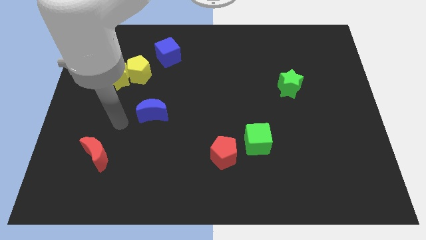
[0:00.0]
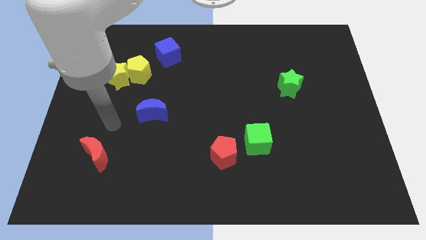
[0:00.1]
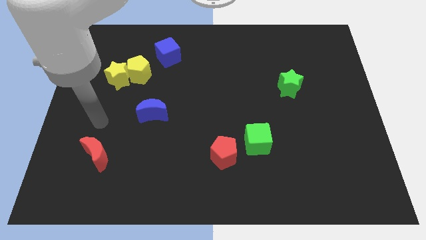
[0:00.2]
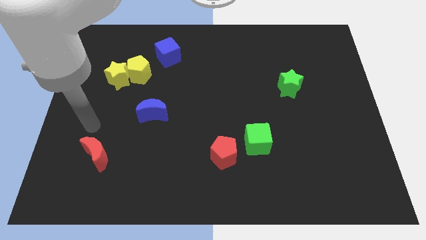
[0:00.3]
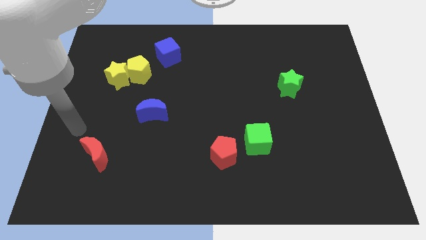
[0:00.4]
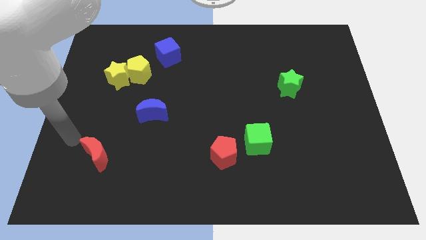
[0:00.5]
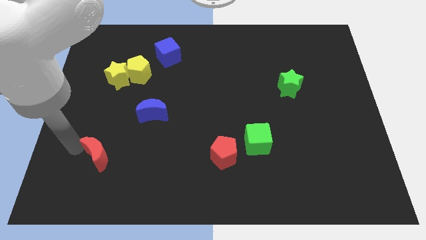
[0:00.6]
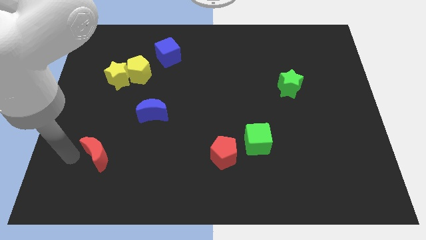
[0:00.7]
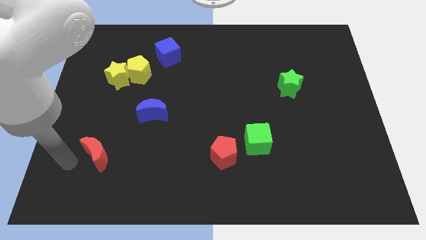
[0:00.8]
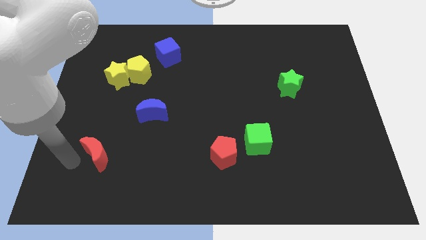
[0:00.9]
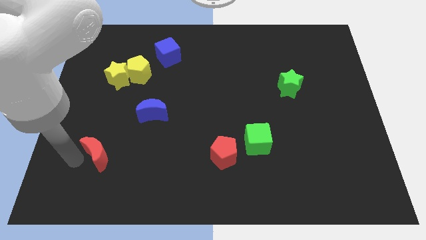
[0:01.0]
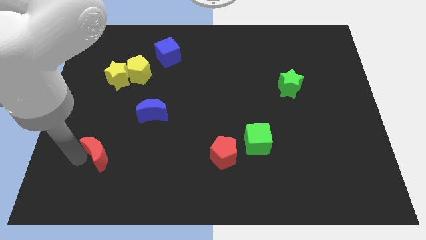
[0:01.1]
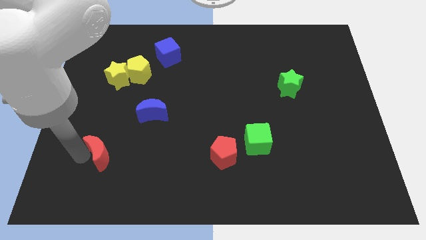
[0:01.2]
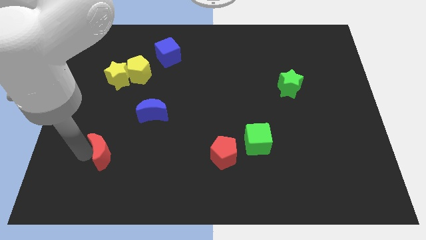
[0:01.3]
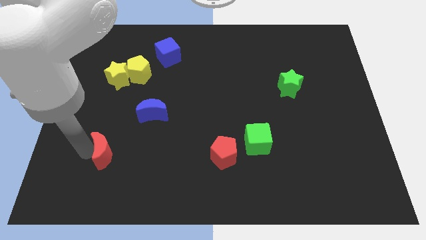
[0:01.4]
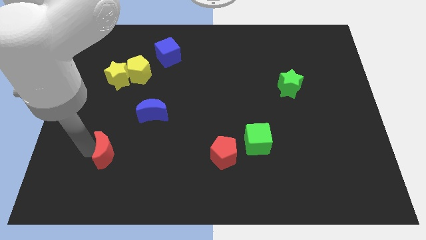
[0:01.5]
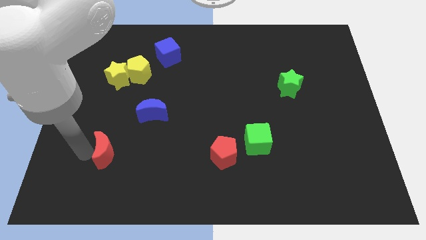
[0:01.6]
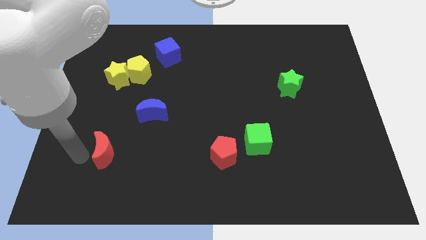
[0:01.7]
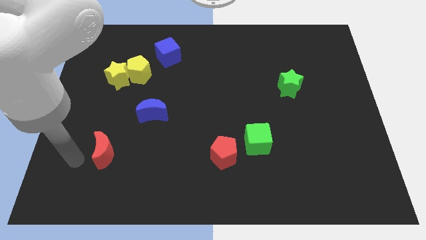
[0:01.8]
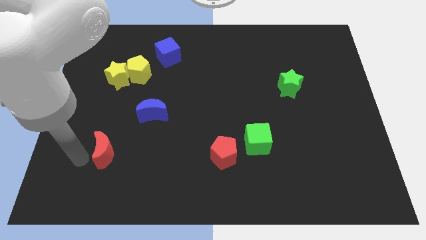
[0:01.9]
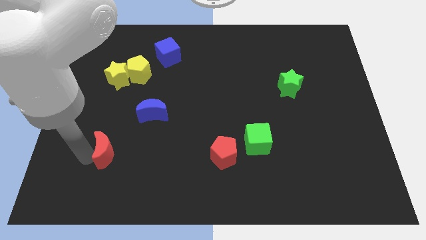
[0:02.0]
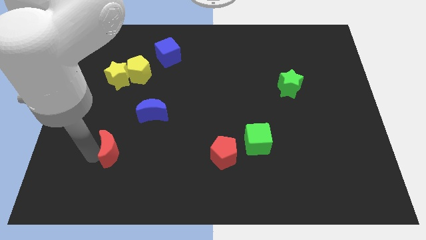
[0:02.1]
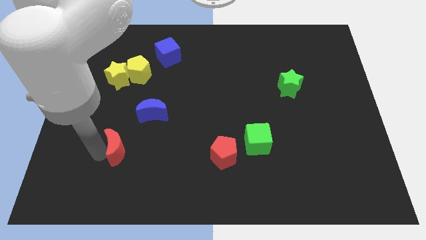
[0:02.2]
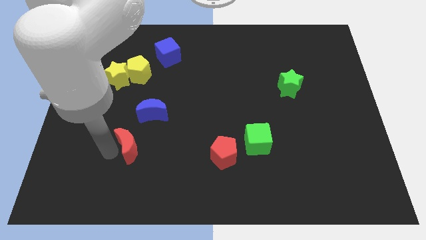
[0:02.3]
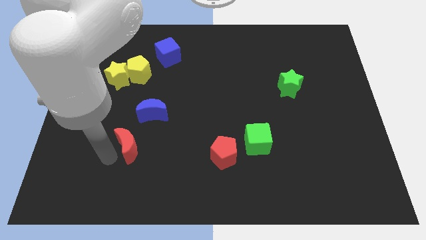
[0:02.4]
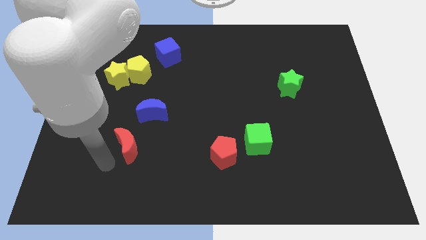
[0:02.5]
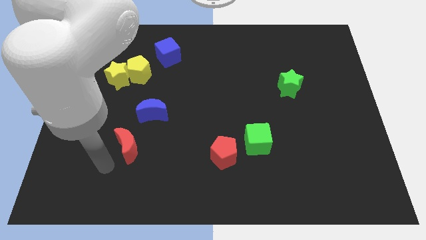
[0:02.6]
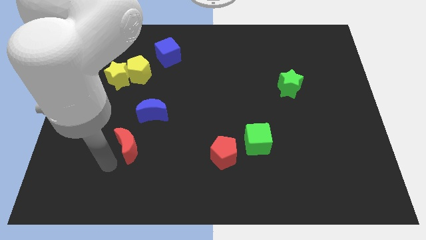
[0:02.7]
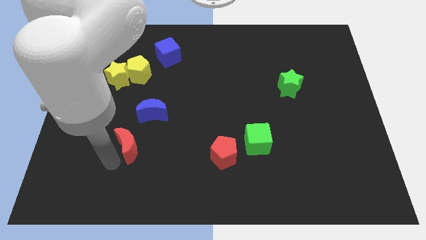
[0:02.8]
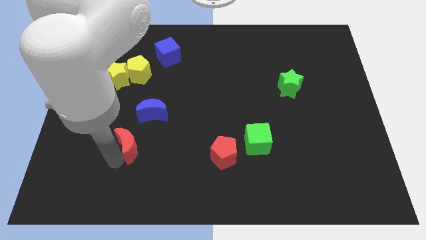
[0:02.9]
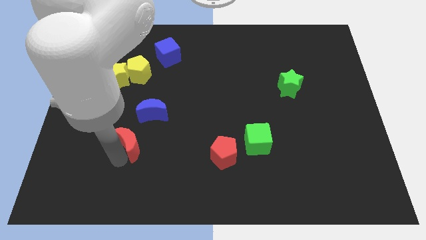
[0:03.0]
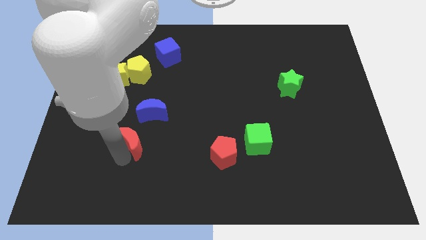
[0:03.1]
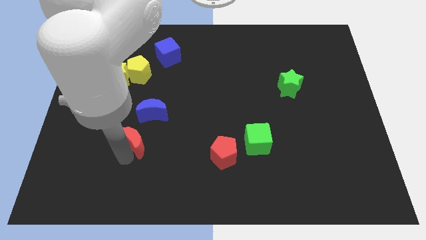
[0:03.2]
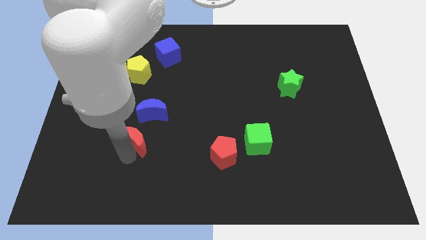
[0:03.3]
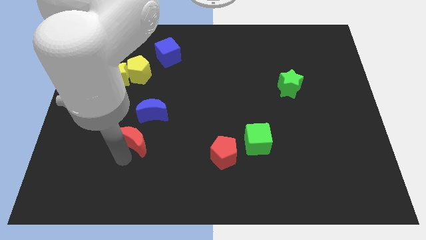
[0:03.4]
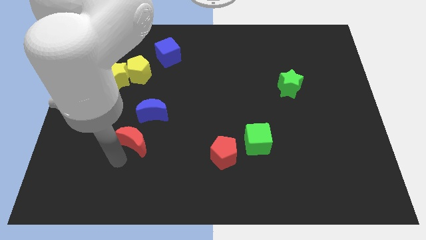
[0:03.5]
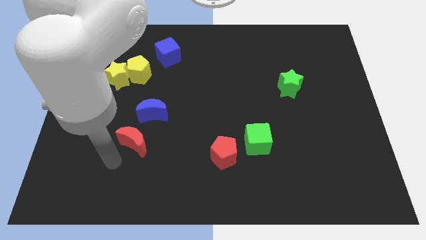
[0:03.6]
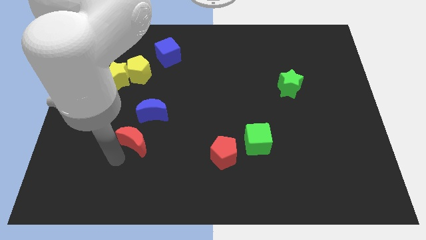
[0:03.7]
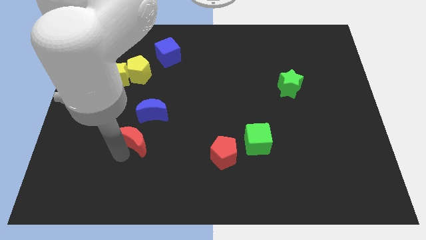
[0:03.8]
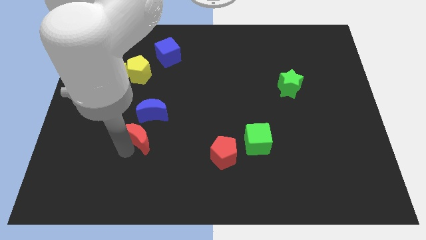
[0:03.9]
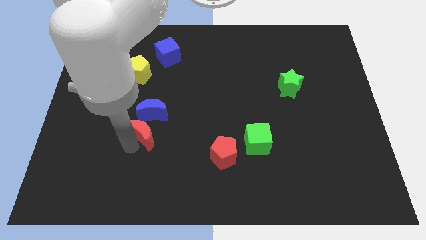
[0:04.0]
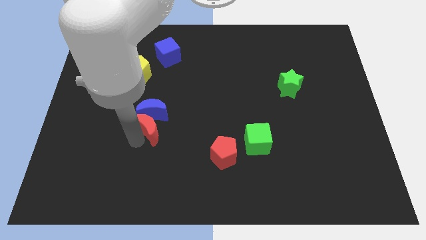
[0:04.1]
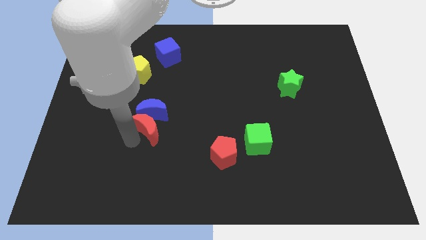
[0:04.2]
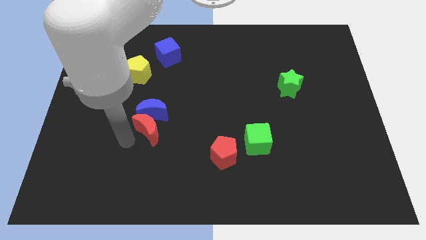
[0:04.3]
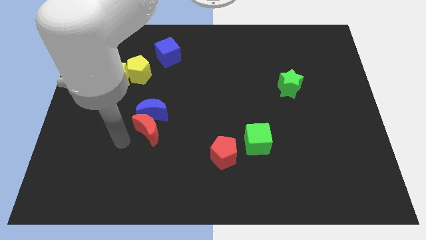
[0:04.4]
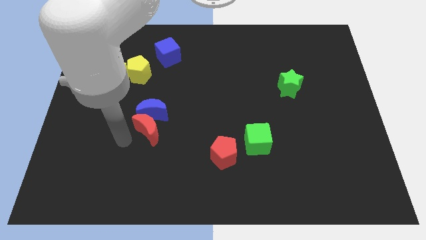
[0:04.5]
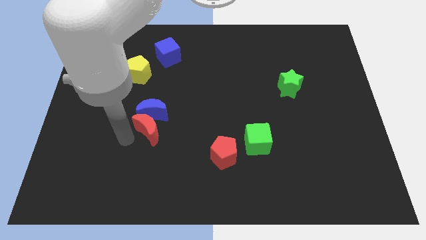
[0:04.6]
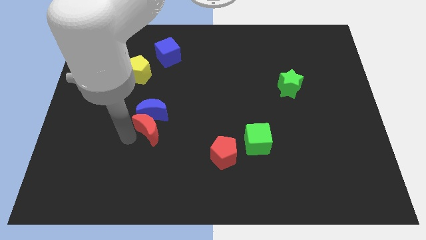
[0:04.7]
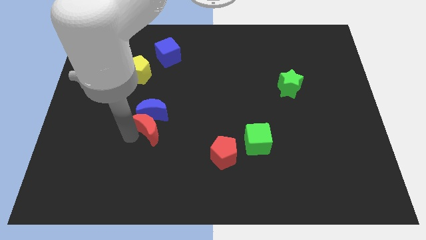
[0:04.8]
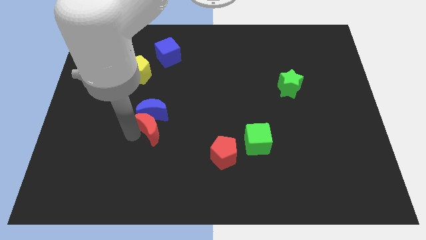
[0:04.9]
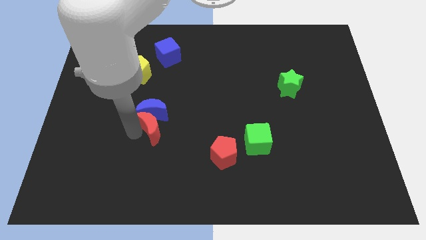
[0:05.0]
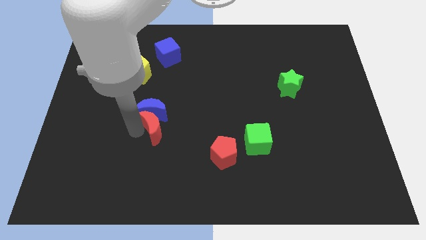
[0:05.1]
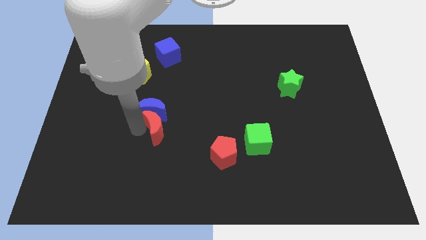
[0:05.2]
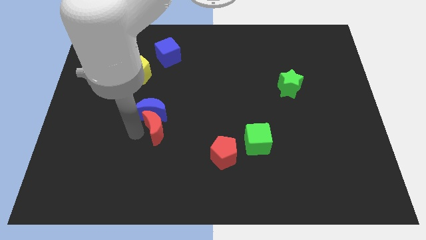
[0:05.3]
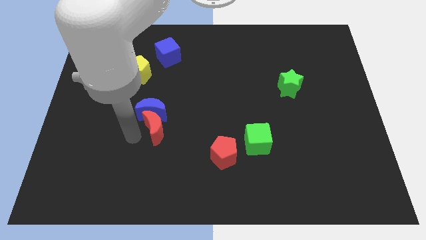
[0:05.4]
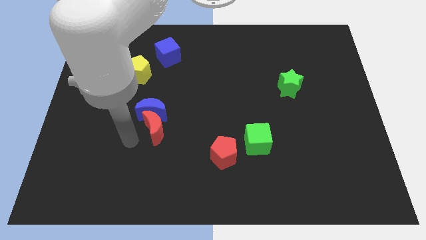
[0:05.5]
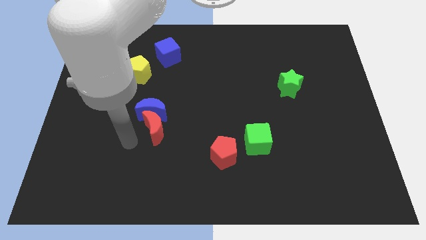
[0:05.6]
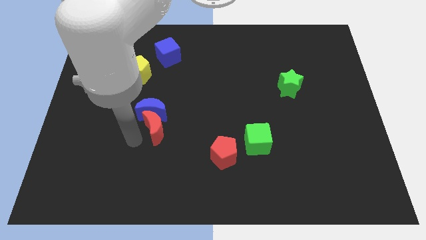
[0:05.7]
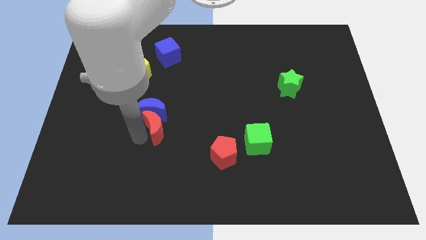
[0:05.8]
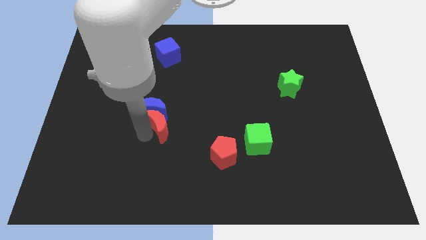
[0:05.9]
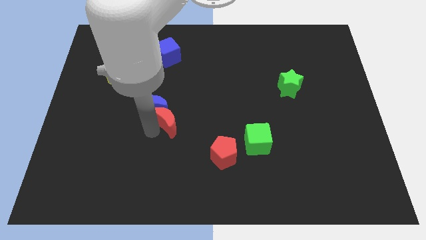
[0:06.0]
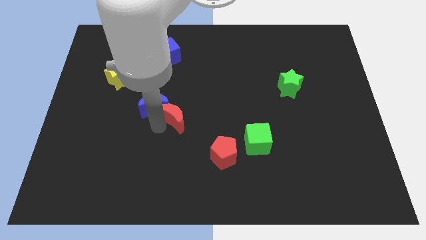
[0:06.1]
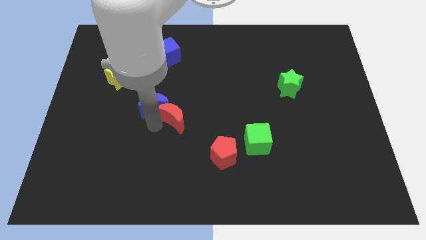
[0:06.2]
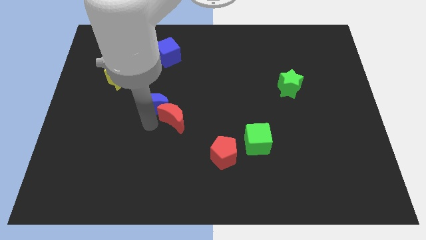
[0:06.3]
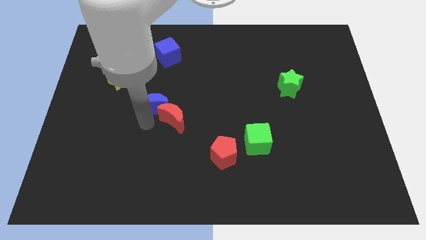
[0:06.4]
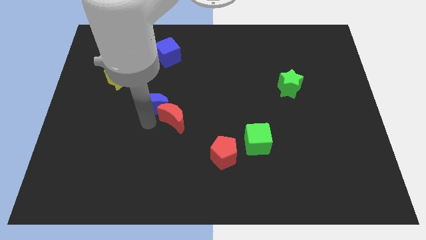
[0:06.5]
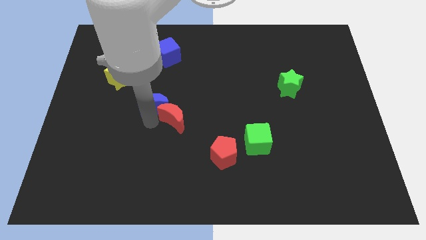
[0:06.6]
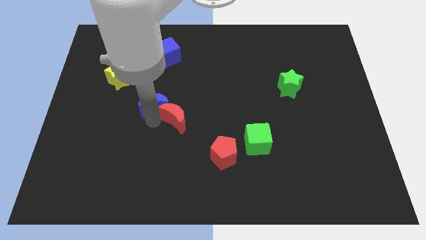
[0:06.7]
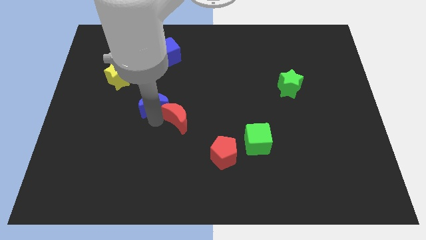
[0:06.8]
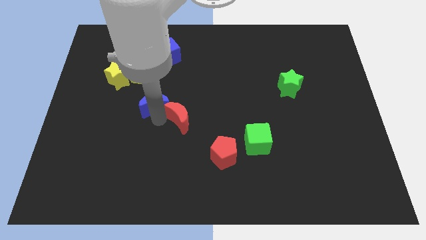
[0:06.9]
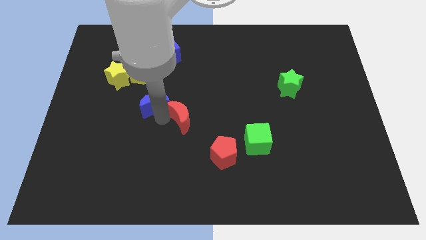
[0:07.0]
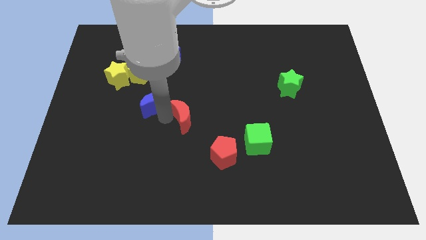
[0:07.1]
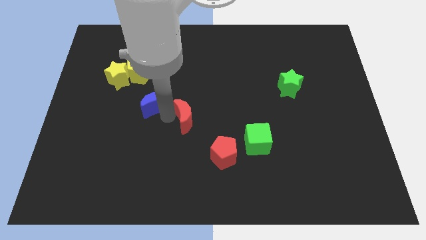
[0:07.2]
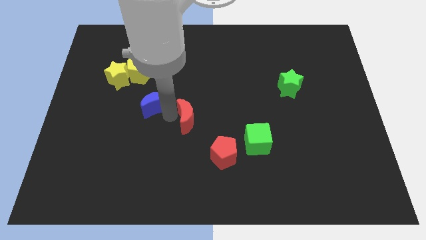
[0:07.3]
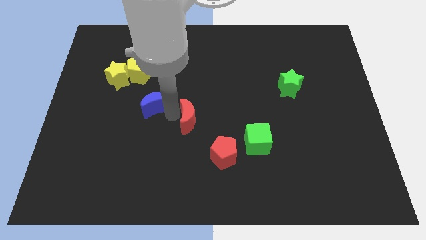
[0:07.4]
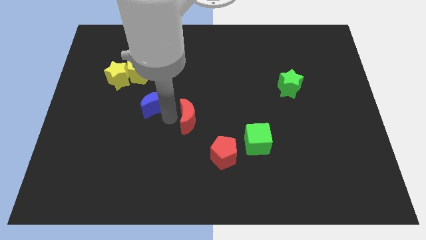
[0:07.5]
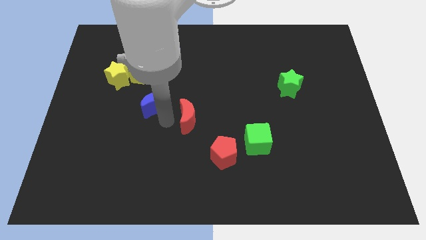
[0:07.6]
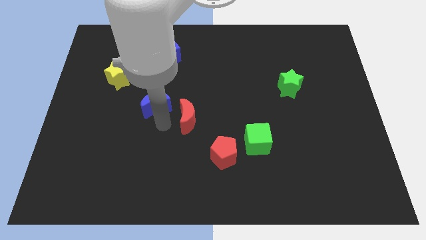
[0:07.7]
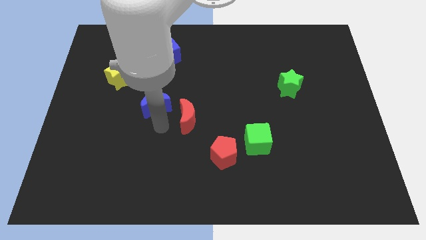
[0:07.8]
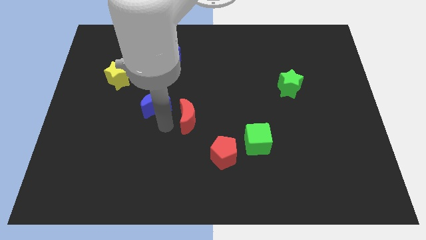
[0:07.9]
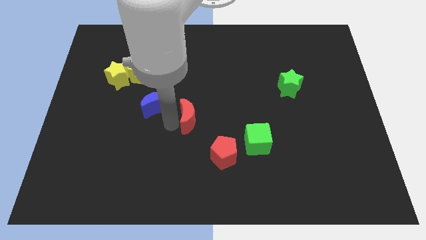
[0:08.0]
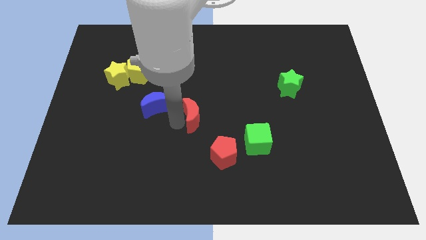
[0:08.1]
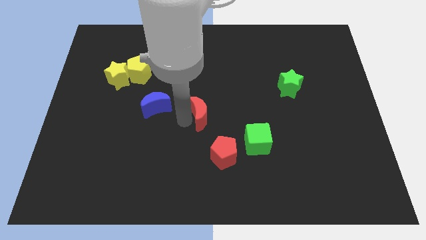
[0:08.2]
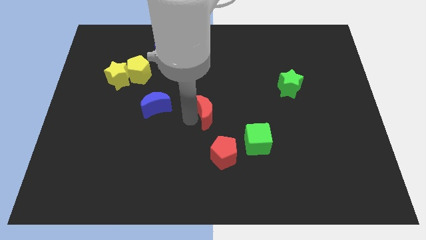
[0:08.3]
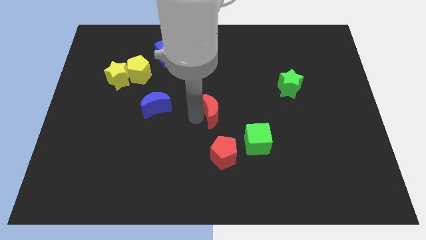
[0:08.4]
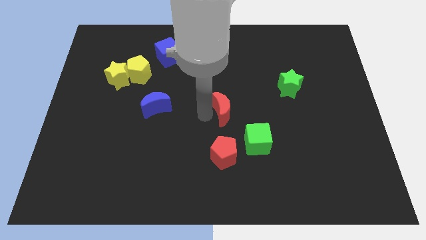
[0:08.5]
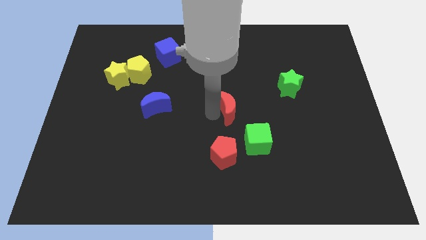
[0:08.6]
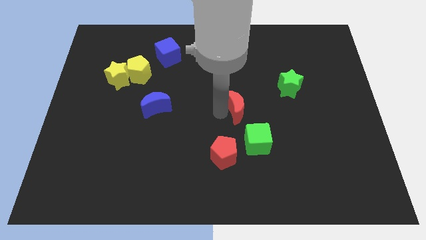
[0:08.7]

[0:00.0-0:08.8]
move the red moon above the green cube
